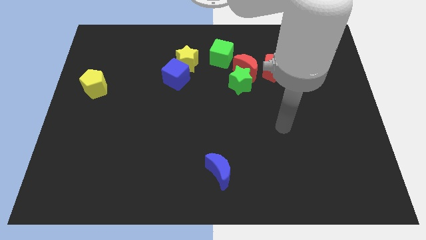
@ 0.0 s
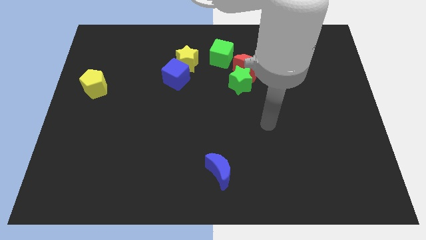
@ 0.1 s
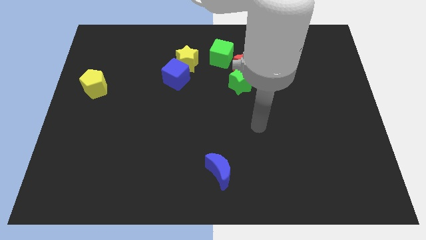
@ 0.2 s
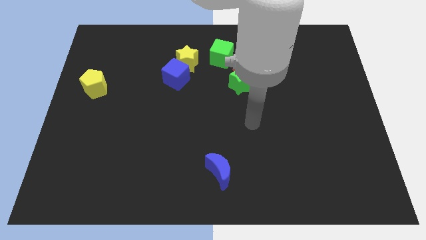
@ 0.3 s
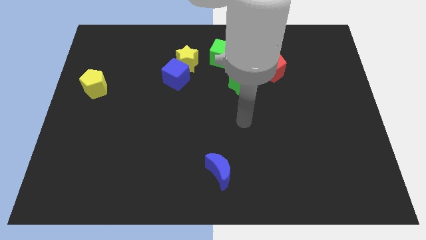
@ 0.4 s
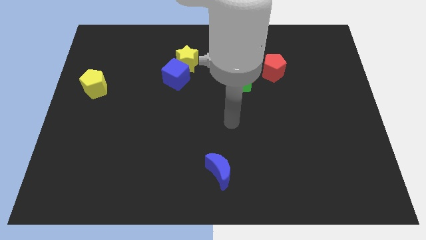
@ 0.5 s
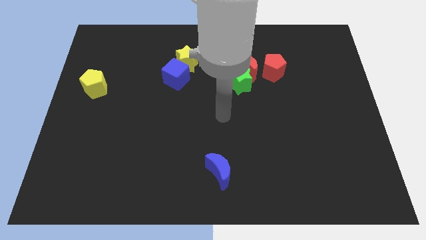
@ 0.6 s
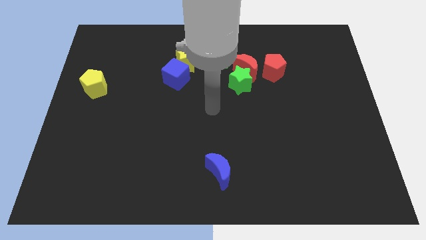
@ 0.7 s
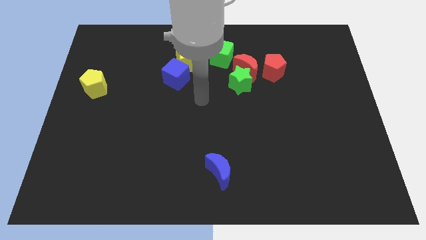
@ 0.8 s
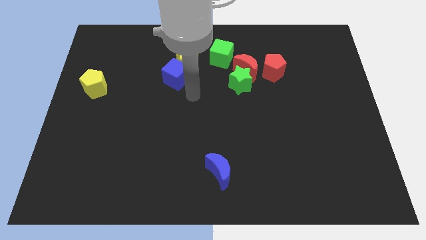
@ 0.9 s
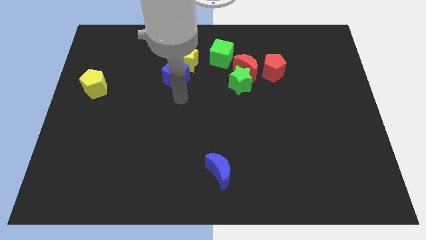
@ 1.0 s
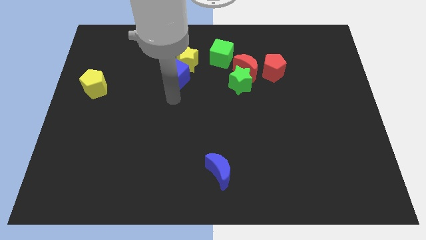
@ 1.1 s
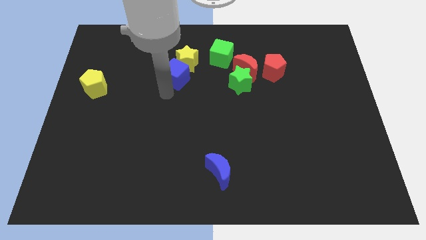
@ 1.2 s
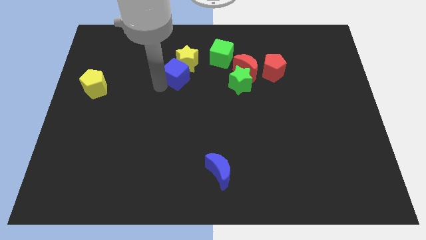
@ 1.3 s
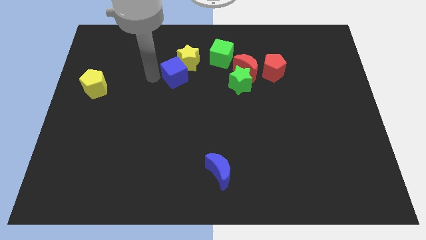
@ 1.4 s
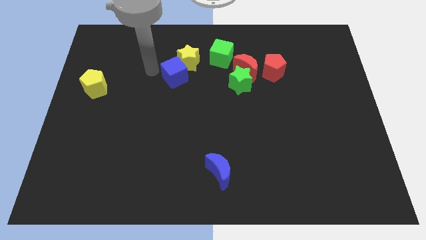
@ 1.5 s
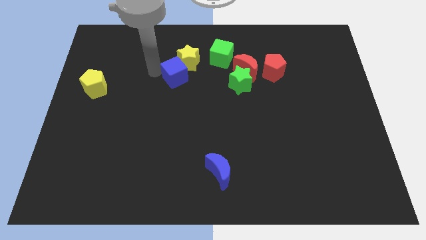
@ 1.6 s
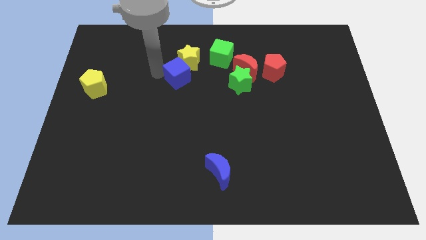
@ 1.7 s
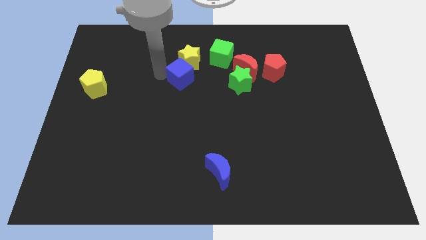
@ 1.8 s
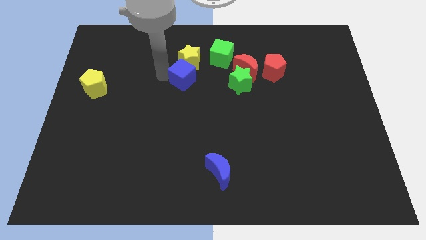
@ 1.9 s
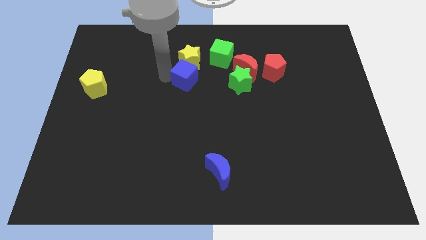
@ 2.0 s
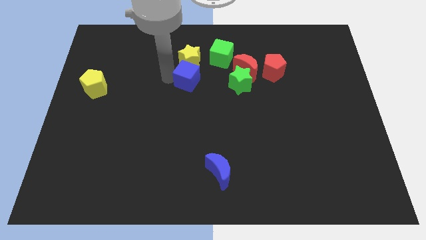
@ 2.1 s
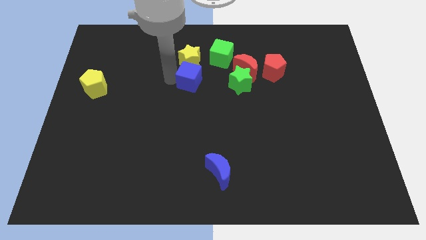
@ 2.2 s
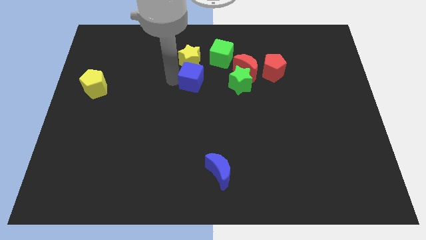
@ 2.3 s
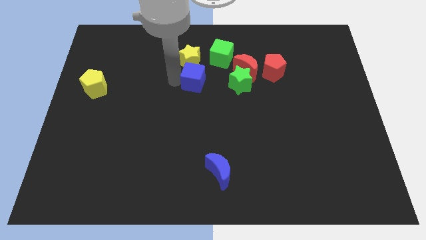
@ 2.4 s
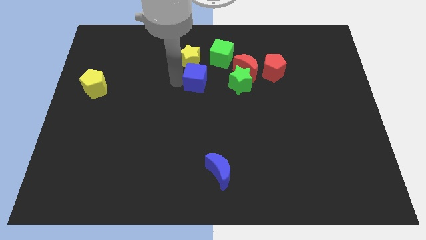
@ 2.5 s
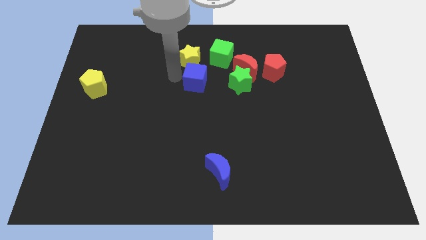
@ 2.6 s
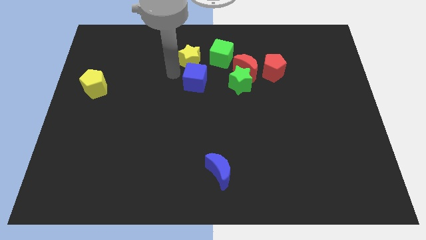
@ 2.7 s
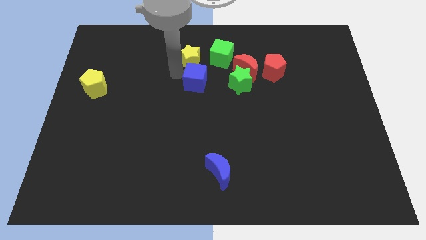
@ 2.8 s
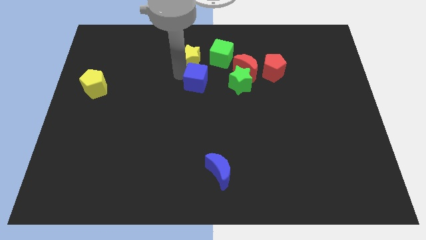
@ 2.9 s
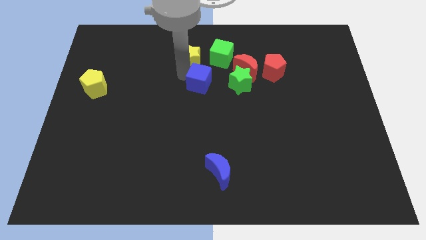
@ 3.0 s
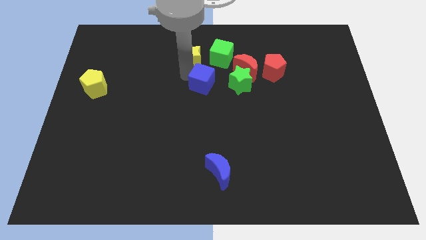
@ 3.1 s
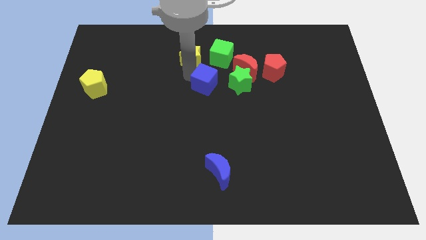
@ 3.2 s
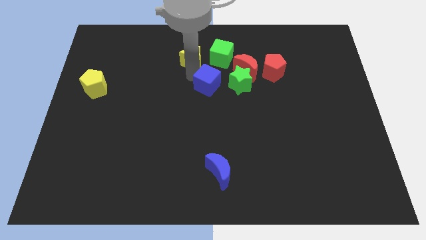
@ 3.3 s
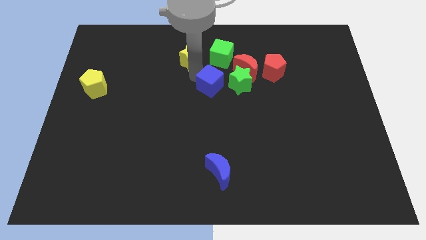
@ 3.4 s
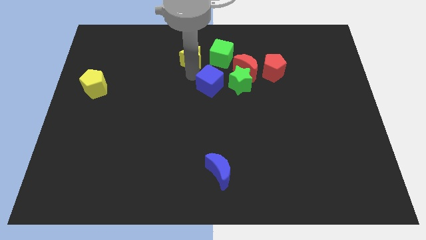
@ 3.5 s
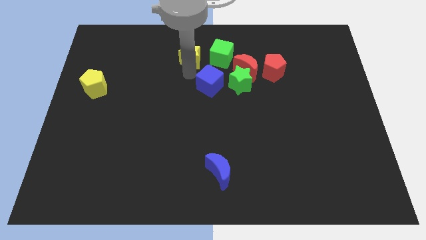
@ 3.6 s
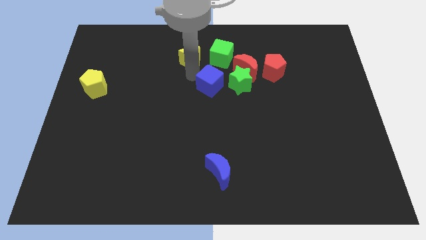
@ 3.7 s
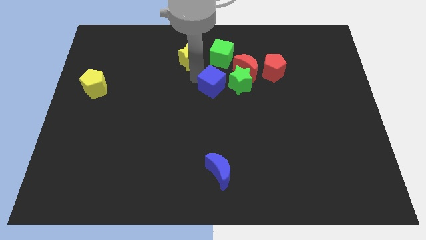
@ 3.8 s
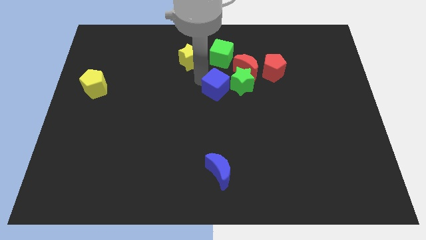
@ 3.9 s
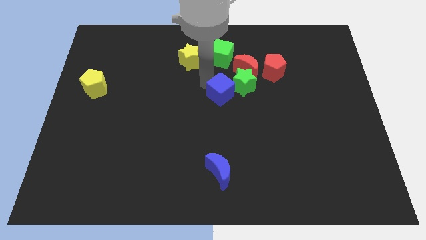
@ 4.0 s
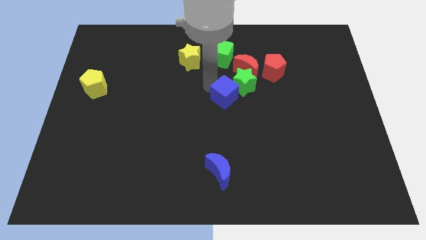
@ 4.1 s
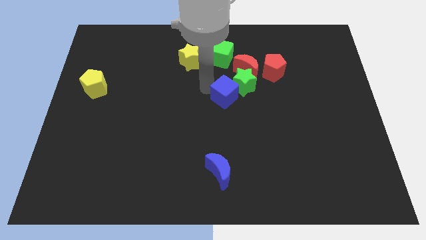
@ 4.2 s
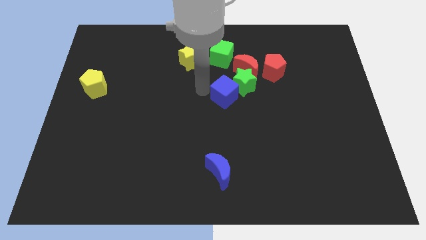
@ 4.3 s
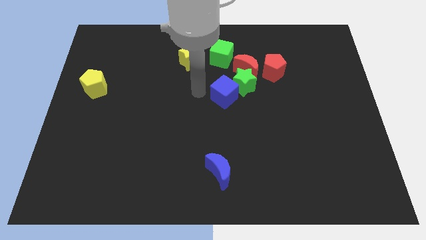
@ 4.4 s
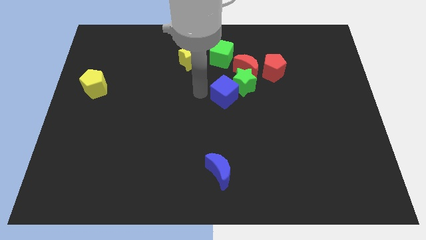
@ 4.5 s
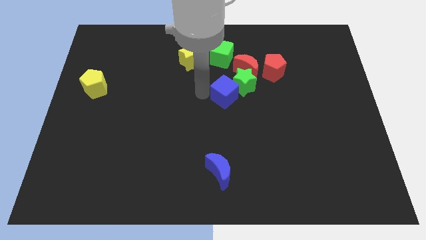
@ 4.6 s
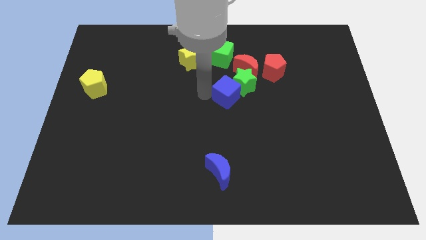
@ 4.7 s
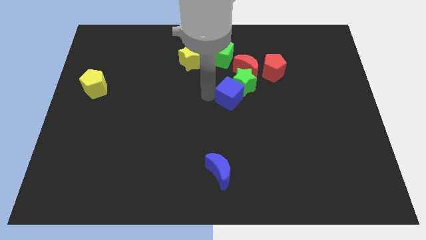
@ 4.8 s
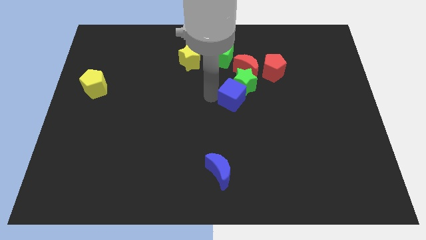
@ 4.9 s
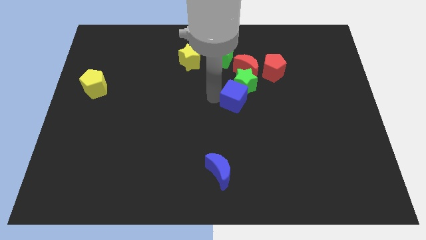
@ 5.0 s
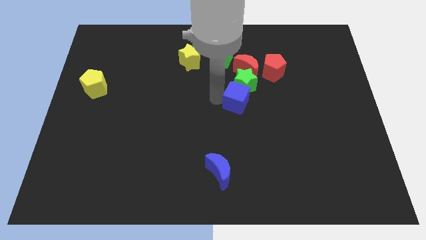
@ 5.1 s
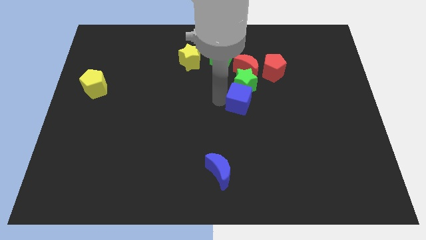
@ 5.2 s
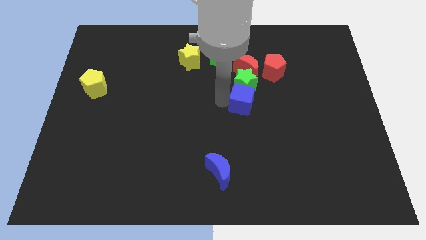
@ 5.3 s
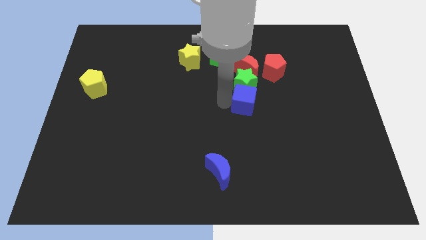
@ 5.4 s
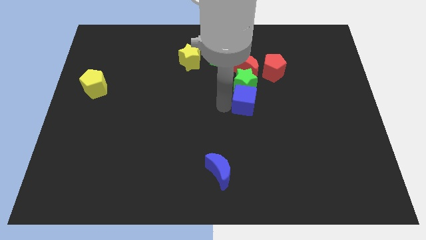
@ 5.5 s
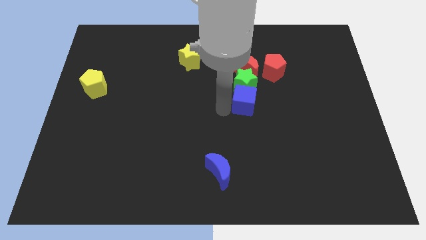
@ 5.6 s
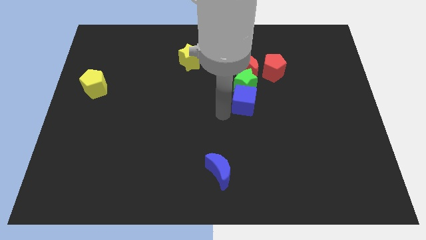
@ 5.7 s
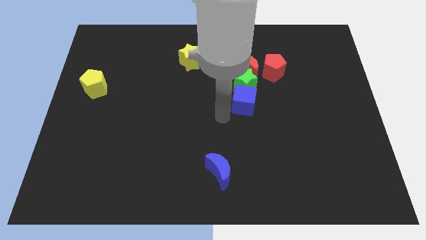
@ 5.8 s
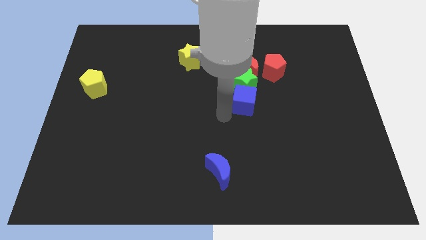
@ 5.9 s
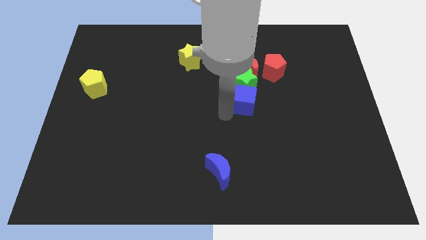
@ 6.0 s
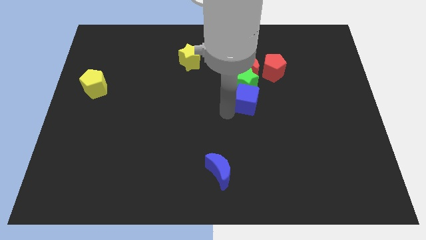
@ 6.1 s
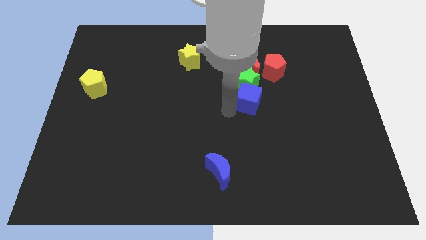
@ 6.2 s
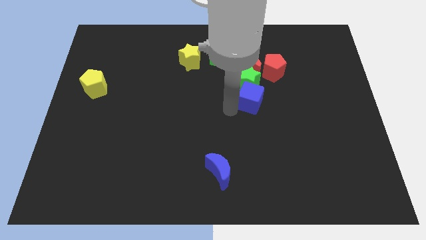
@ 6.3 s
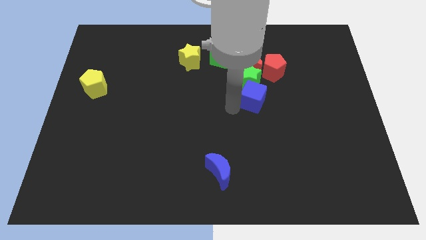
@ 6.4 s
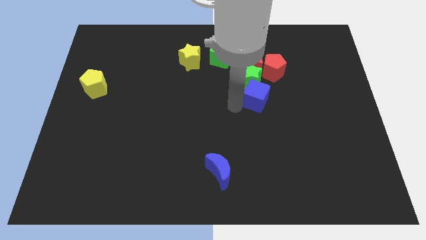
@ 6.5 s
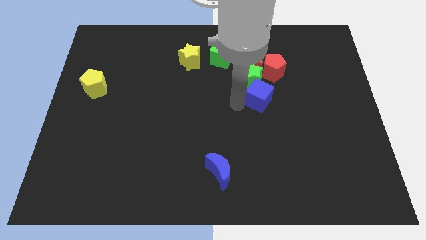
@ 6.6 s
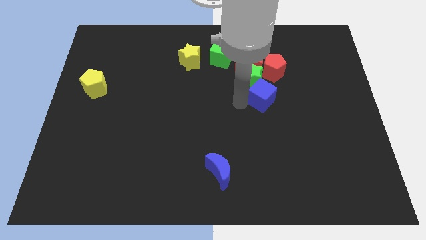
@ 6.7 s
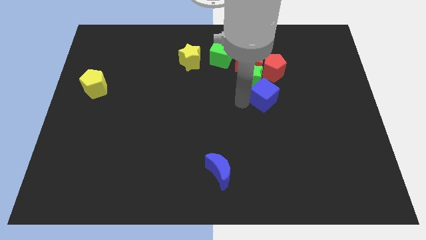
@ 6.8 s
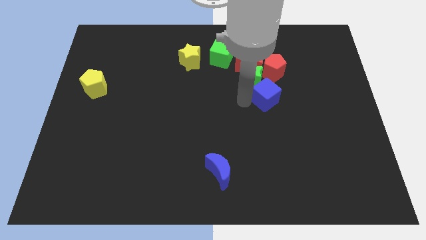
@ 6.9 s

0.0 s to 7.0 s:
move the blue cube right

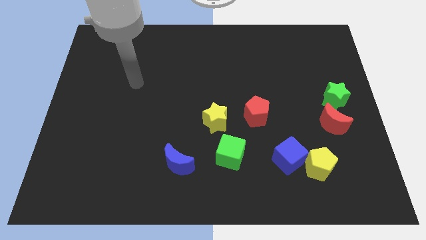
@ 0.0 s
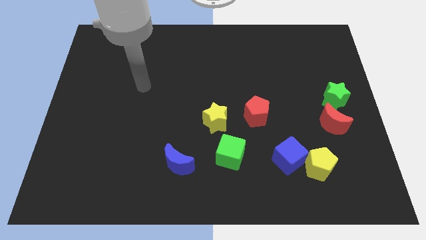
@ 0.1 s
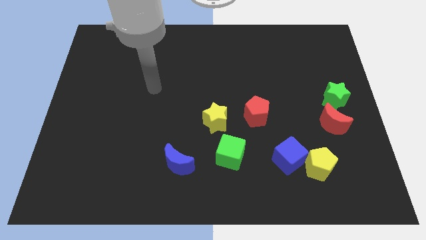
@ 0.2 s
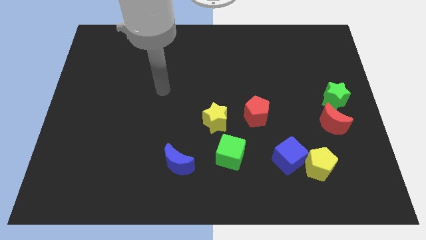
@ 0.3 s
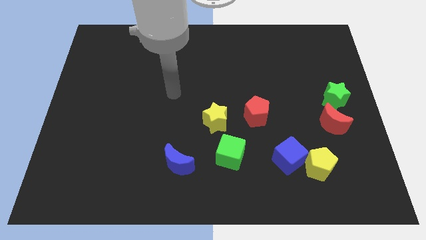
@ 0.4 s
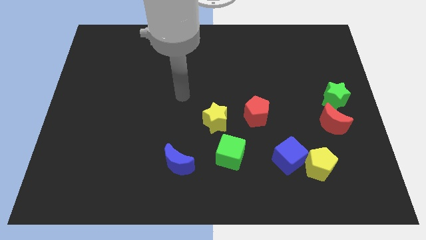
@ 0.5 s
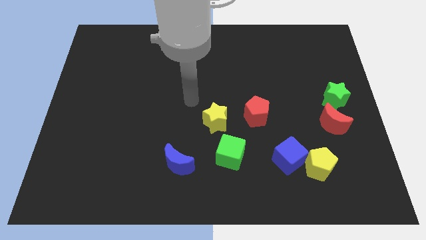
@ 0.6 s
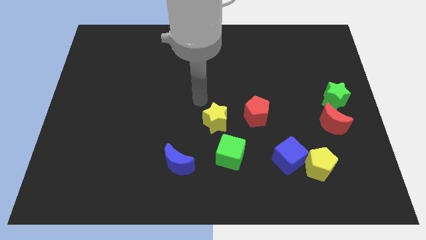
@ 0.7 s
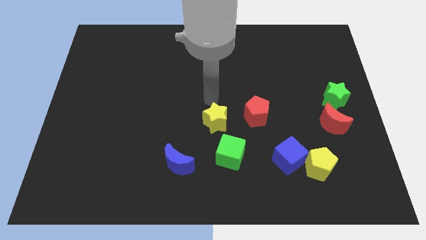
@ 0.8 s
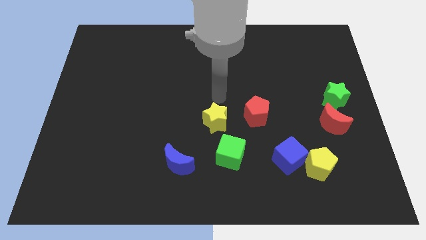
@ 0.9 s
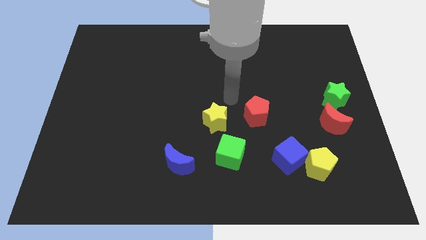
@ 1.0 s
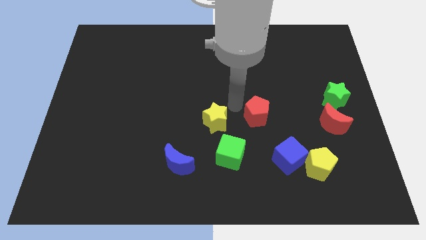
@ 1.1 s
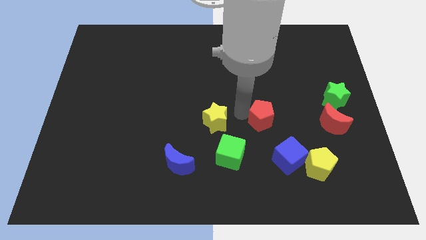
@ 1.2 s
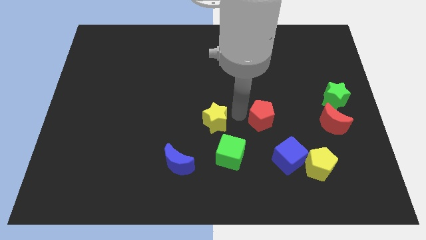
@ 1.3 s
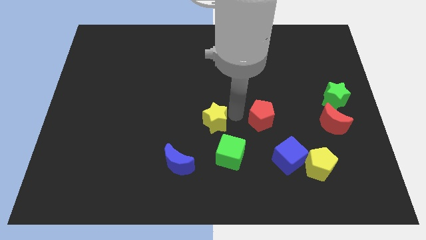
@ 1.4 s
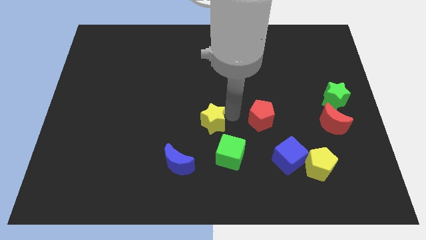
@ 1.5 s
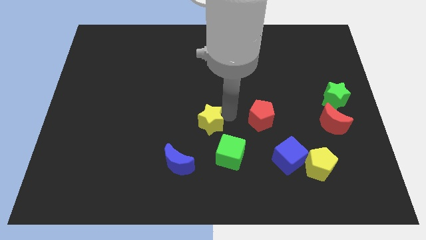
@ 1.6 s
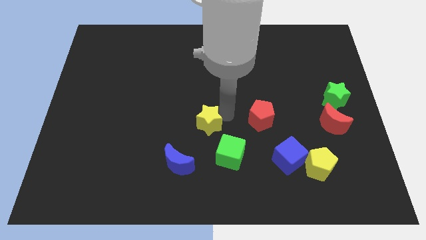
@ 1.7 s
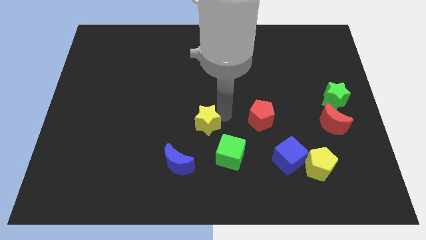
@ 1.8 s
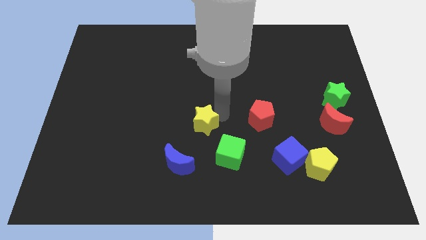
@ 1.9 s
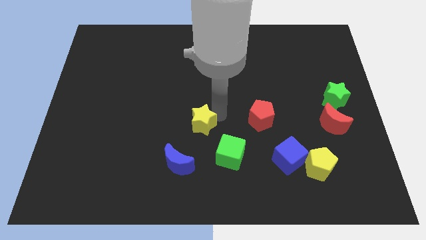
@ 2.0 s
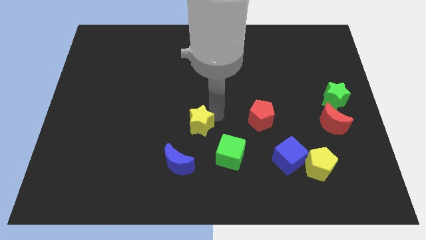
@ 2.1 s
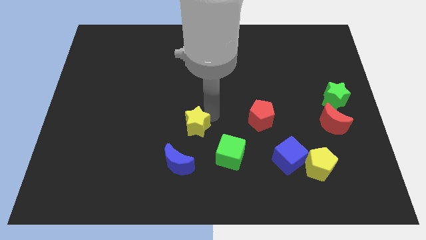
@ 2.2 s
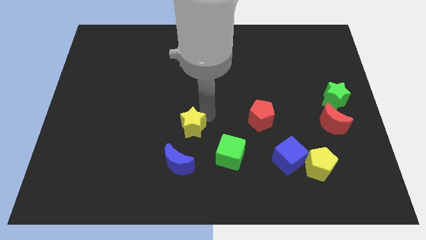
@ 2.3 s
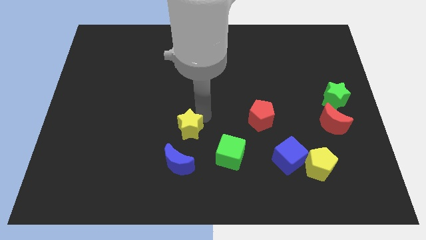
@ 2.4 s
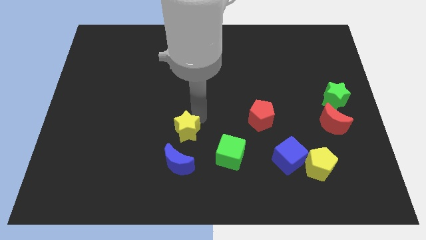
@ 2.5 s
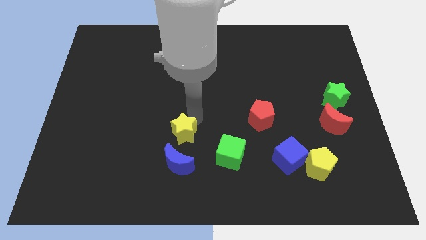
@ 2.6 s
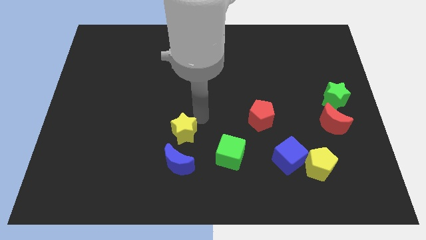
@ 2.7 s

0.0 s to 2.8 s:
push the yellow star down and then to the left somewhat
